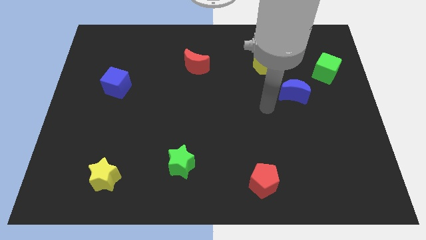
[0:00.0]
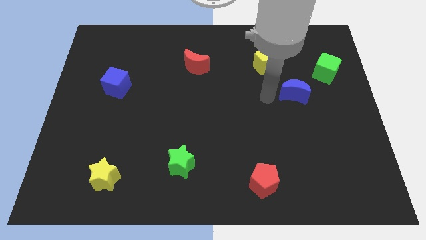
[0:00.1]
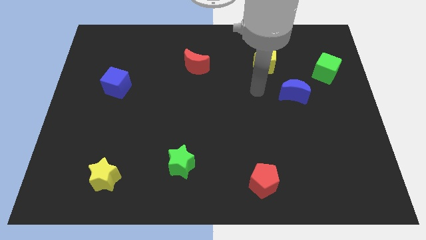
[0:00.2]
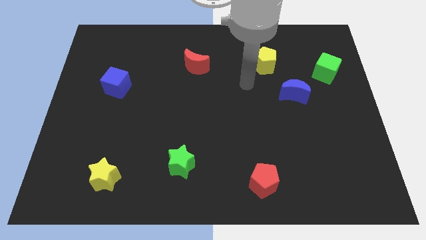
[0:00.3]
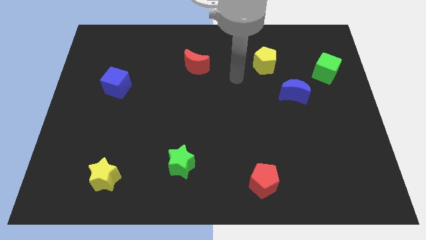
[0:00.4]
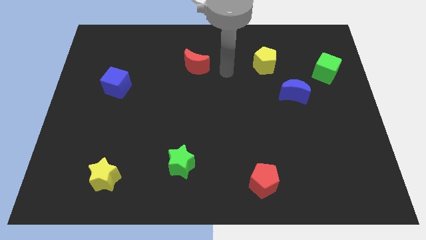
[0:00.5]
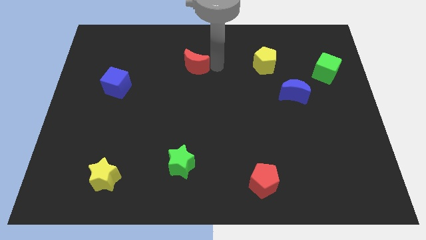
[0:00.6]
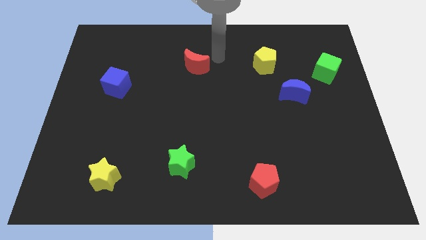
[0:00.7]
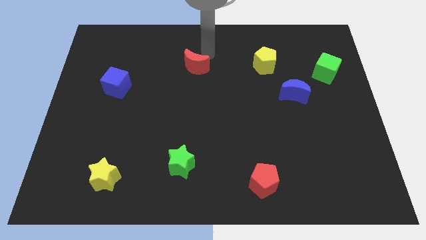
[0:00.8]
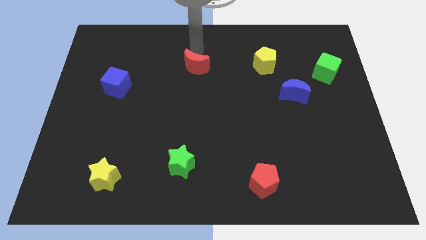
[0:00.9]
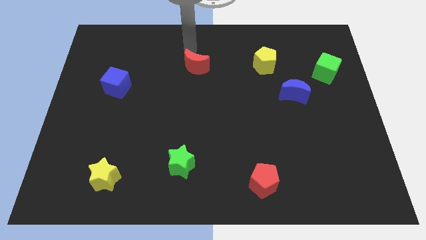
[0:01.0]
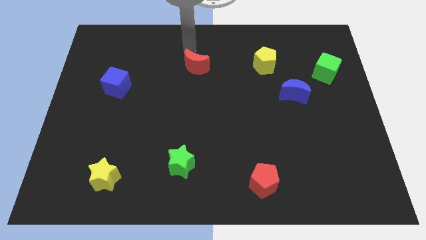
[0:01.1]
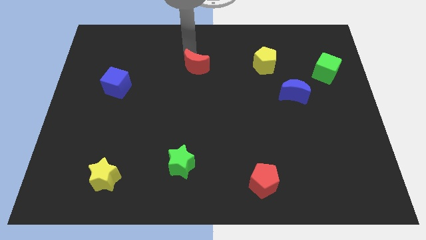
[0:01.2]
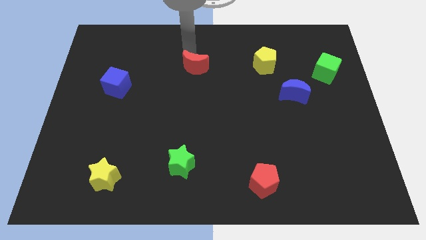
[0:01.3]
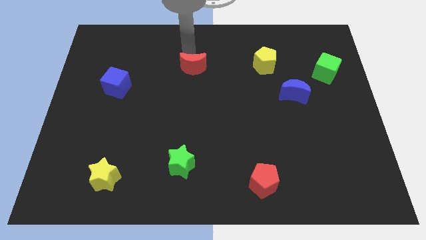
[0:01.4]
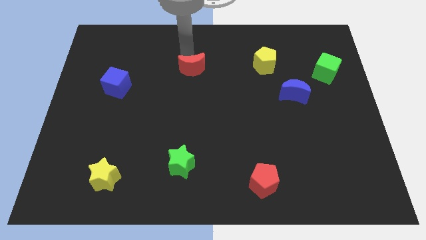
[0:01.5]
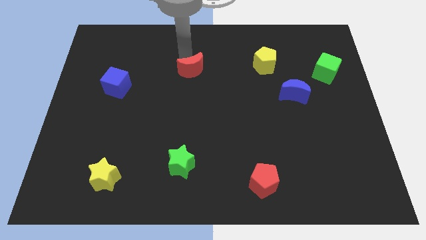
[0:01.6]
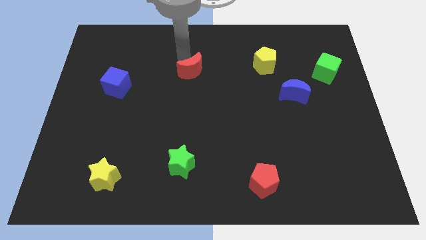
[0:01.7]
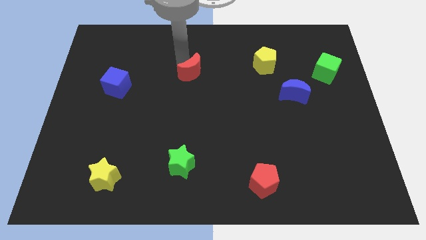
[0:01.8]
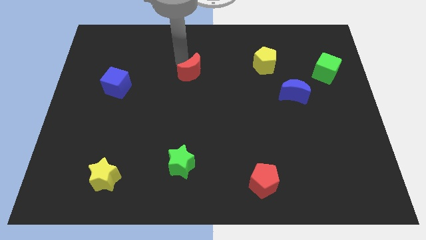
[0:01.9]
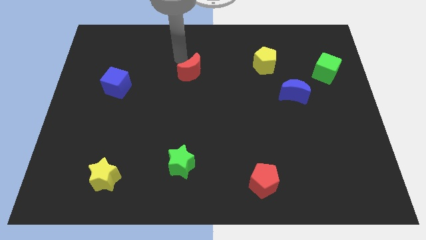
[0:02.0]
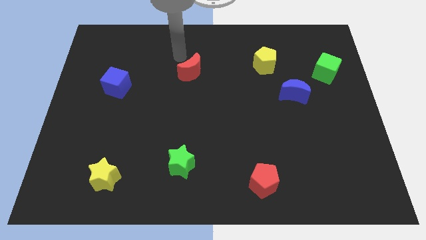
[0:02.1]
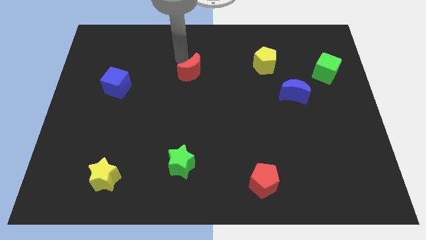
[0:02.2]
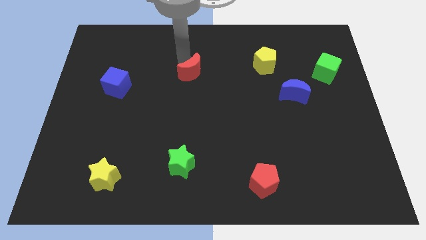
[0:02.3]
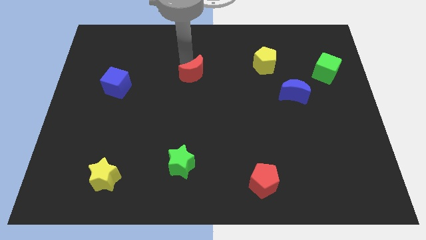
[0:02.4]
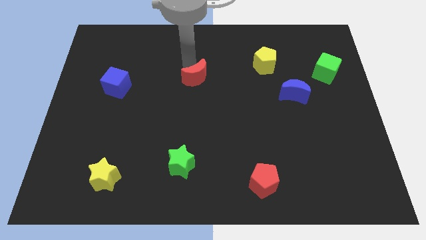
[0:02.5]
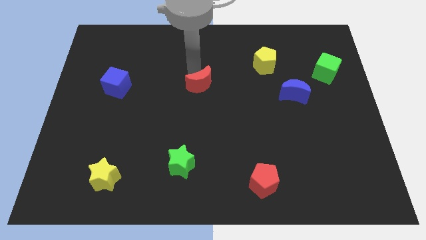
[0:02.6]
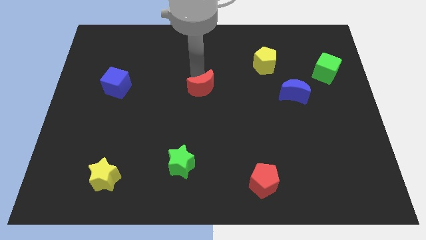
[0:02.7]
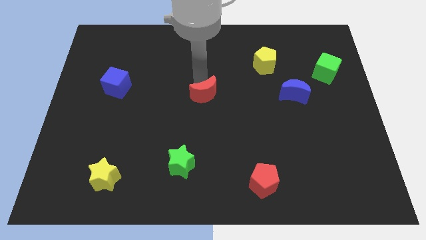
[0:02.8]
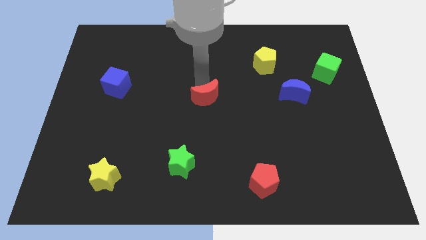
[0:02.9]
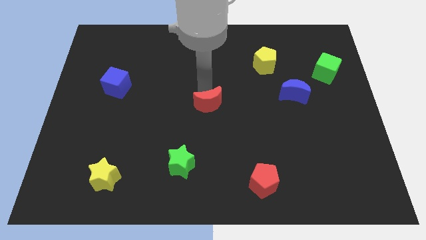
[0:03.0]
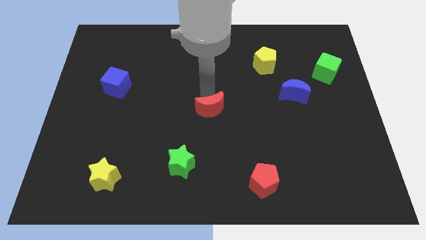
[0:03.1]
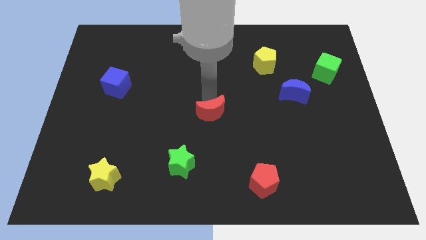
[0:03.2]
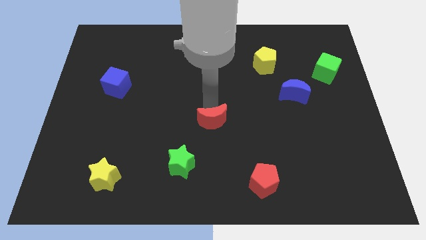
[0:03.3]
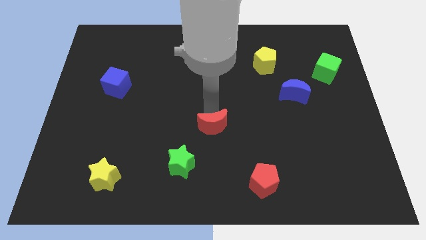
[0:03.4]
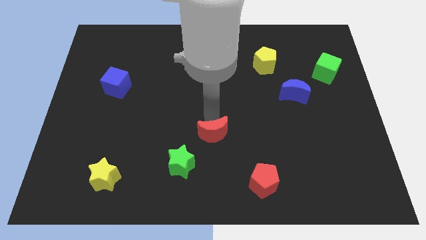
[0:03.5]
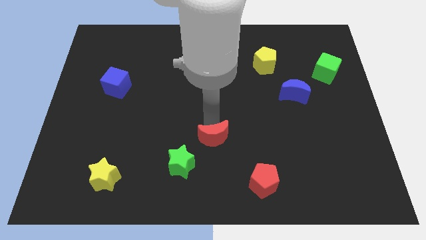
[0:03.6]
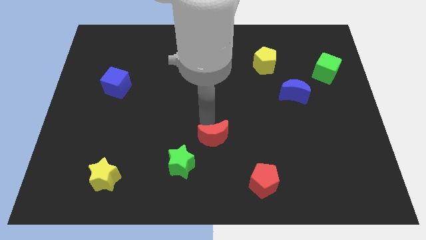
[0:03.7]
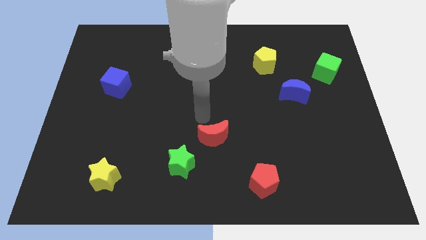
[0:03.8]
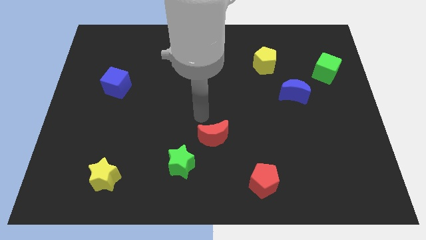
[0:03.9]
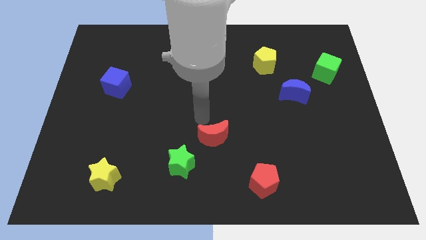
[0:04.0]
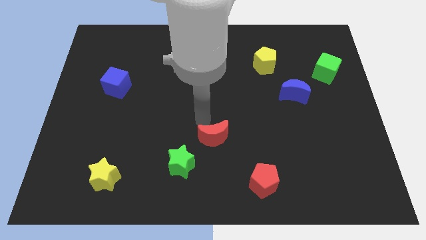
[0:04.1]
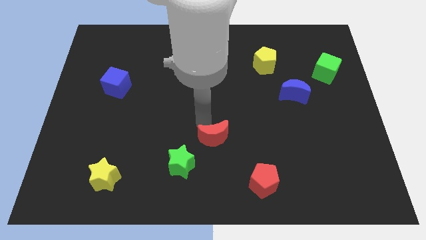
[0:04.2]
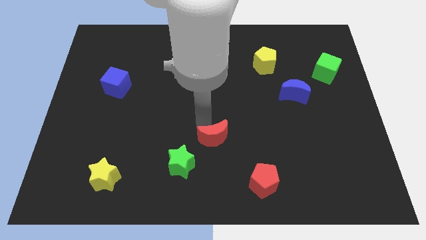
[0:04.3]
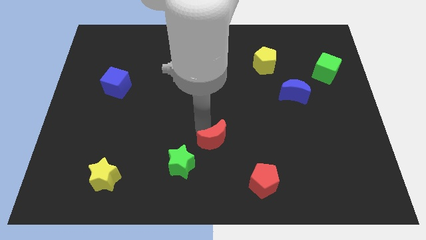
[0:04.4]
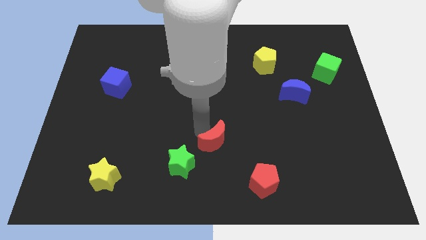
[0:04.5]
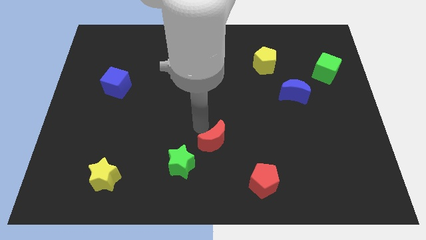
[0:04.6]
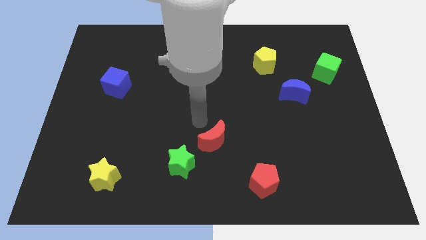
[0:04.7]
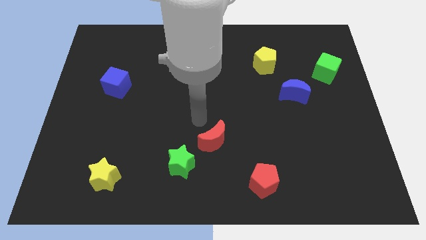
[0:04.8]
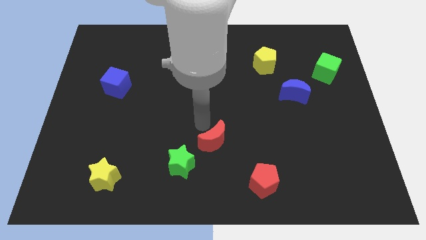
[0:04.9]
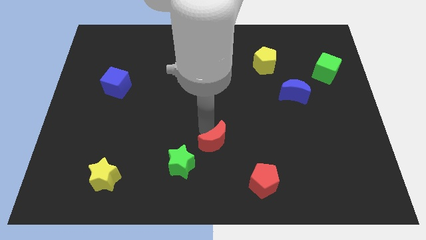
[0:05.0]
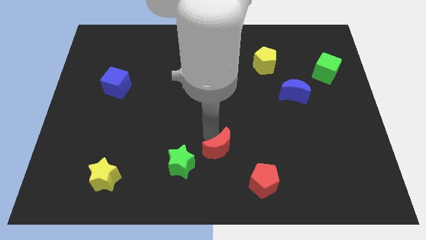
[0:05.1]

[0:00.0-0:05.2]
push the red moon just right of the green star

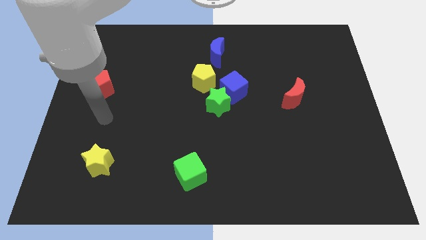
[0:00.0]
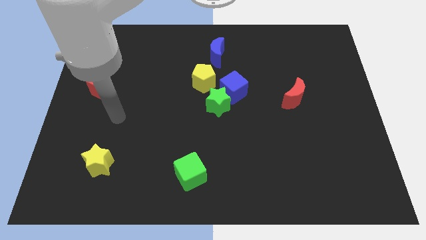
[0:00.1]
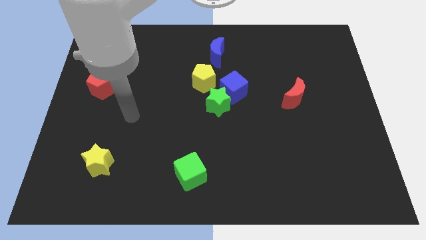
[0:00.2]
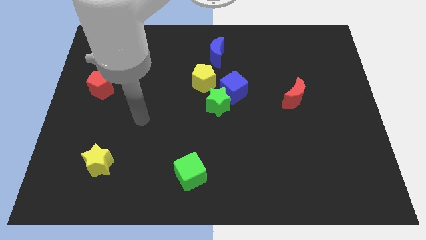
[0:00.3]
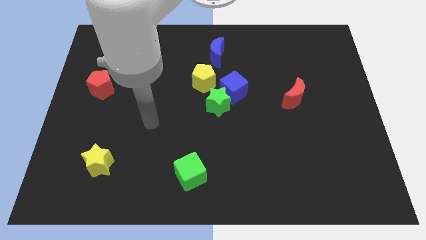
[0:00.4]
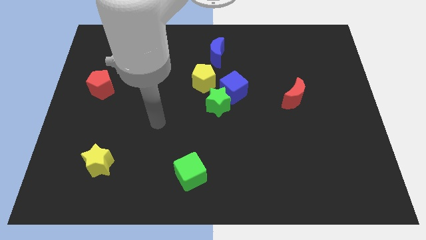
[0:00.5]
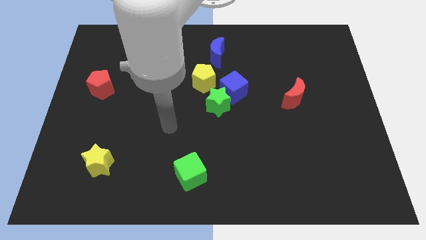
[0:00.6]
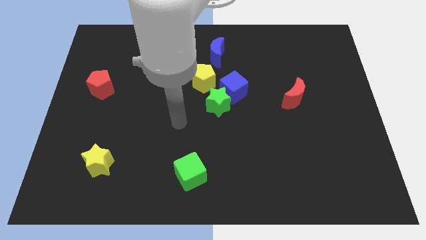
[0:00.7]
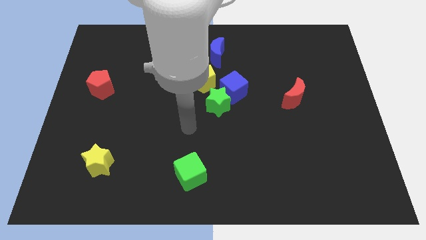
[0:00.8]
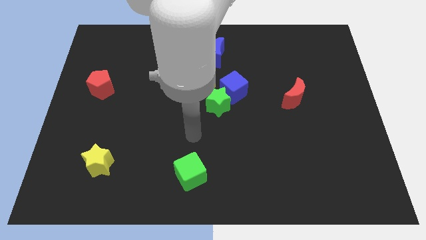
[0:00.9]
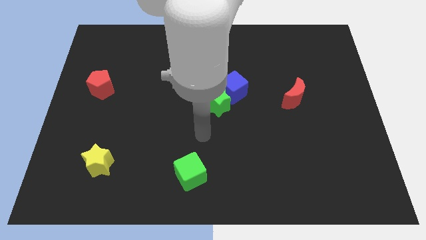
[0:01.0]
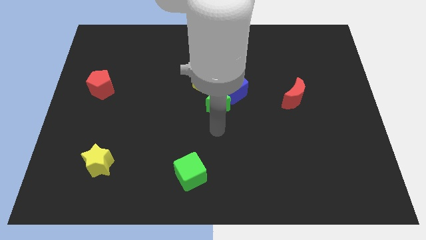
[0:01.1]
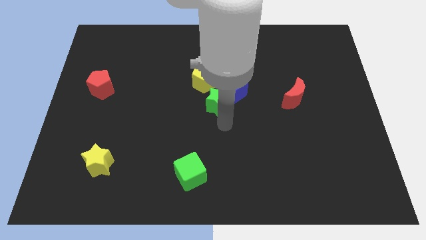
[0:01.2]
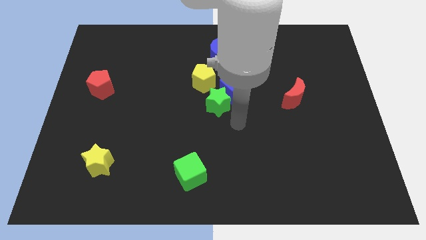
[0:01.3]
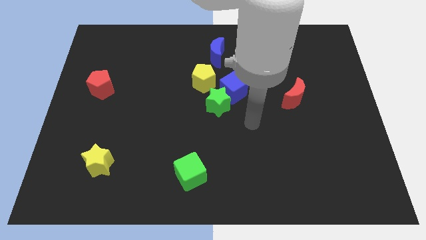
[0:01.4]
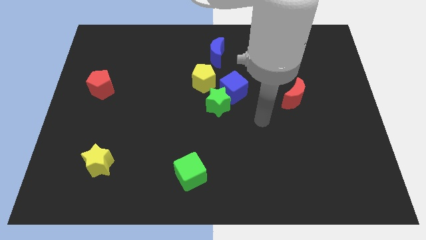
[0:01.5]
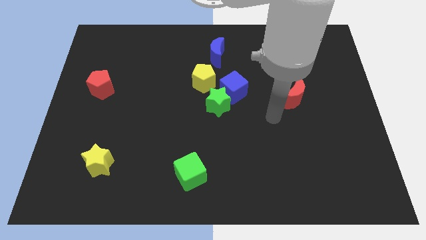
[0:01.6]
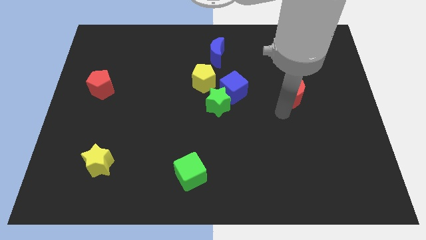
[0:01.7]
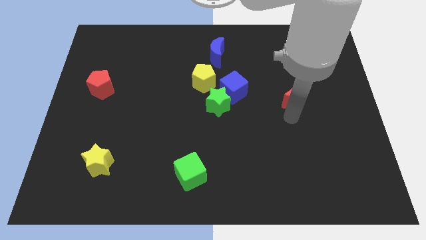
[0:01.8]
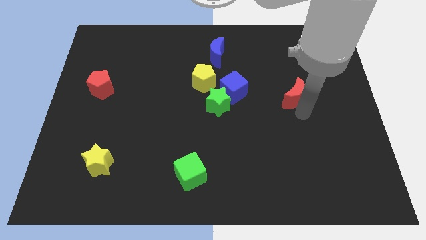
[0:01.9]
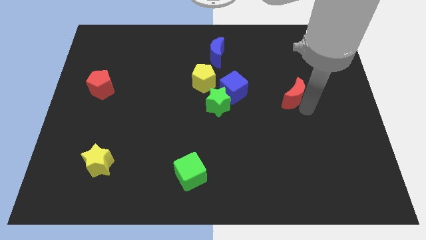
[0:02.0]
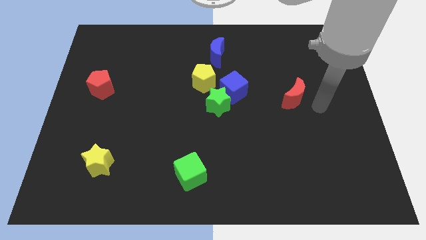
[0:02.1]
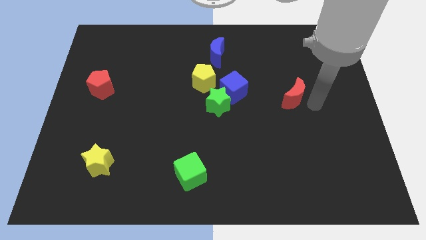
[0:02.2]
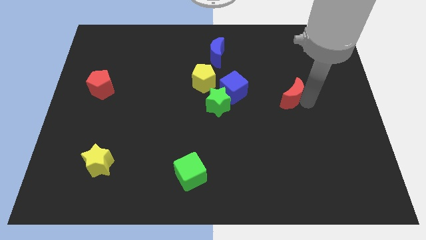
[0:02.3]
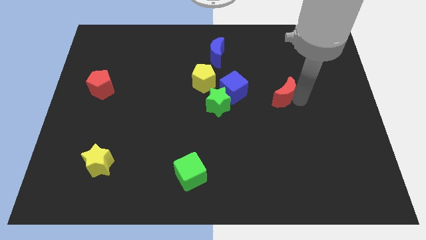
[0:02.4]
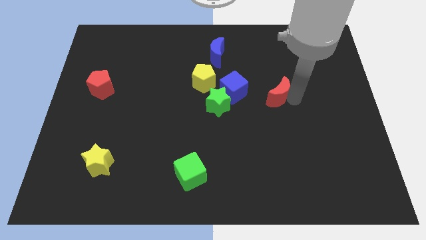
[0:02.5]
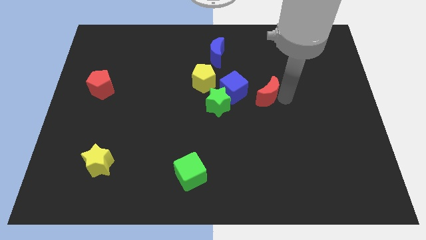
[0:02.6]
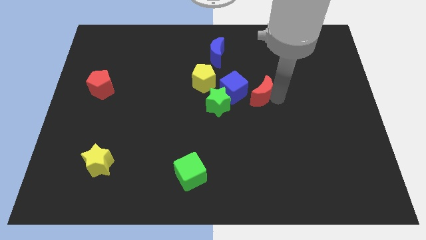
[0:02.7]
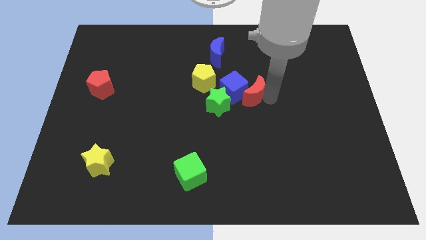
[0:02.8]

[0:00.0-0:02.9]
push the red moon right of the yellow pentagon

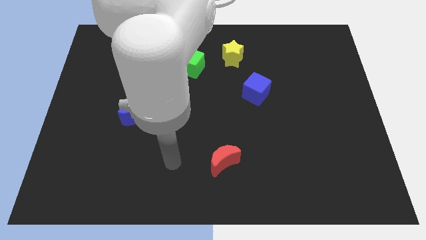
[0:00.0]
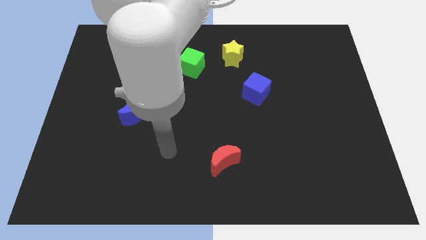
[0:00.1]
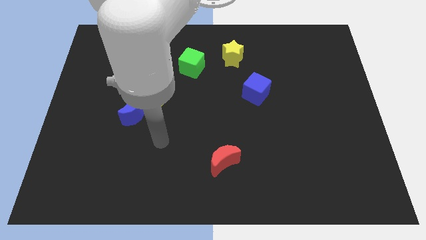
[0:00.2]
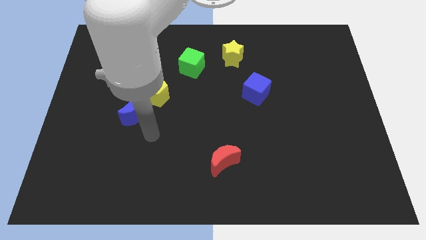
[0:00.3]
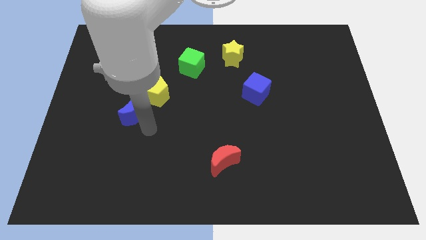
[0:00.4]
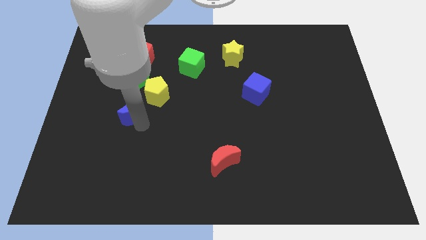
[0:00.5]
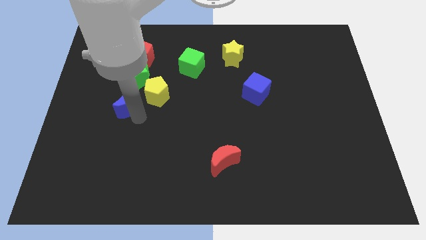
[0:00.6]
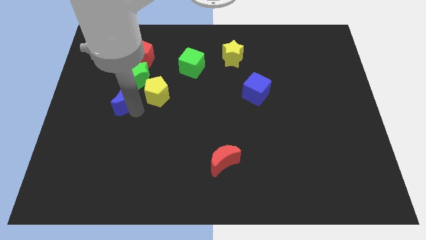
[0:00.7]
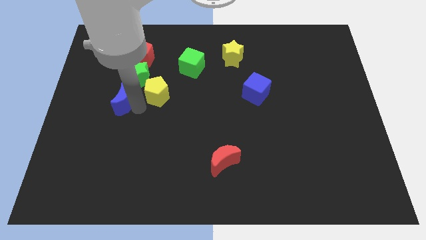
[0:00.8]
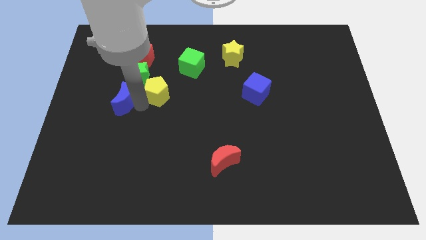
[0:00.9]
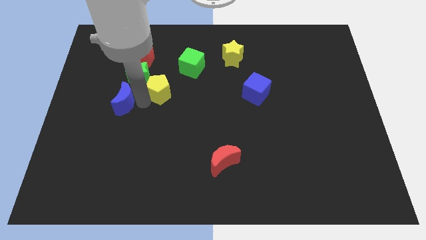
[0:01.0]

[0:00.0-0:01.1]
slide the yellow pentagon just right of the green star
